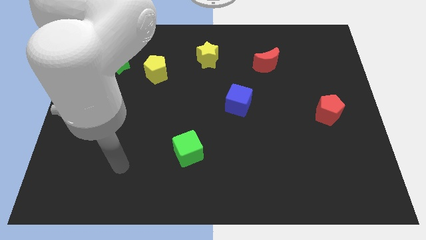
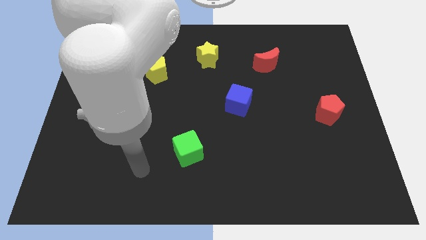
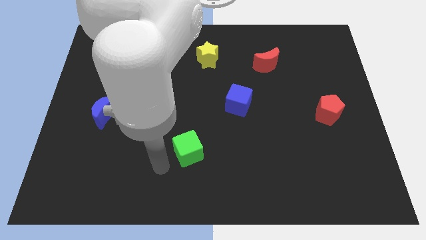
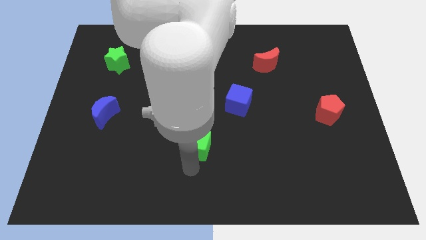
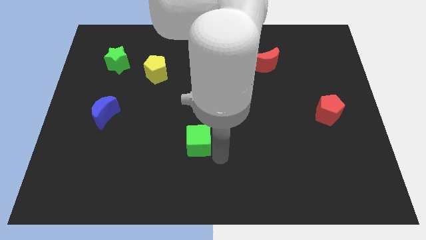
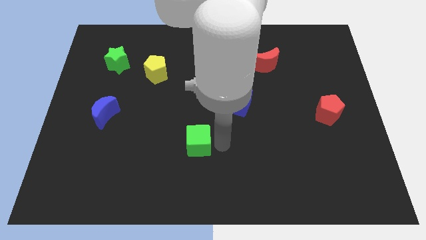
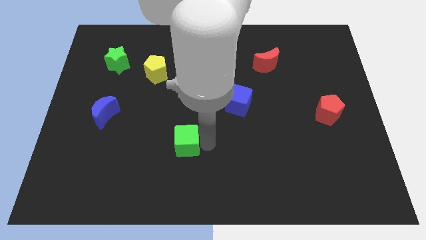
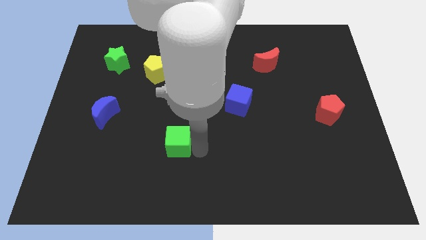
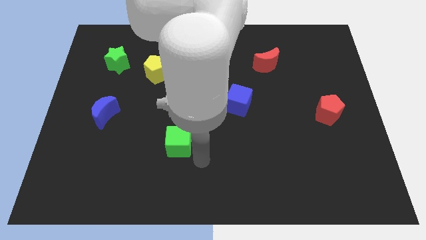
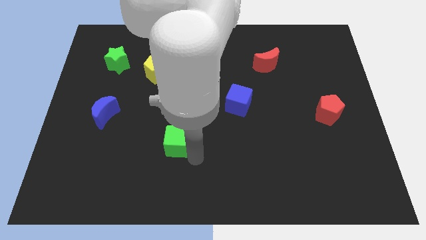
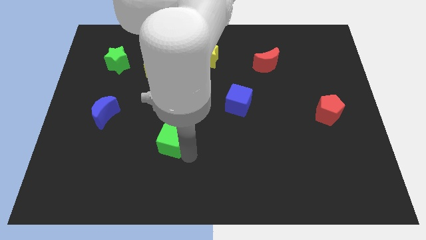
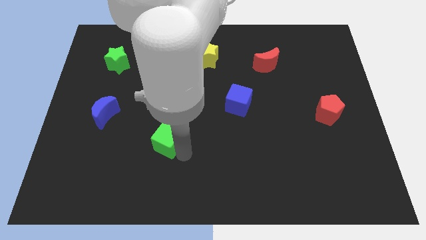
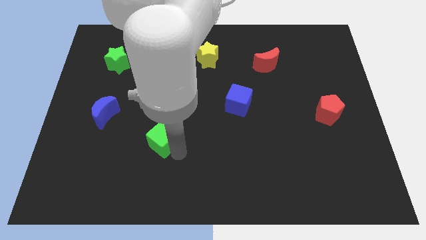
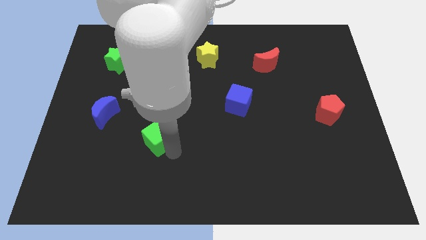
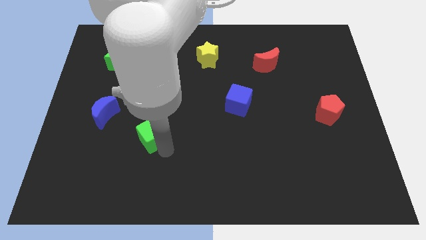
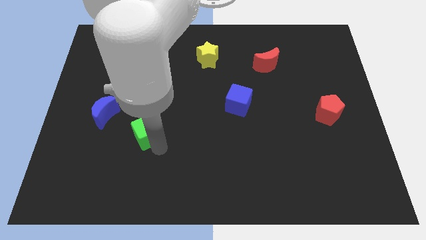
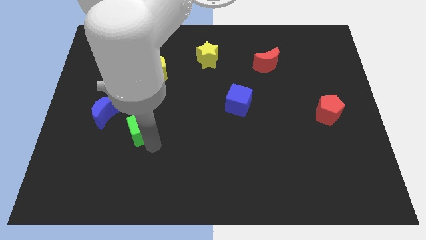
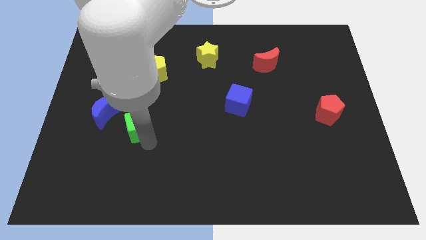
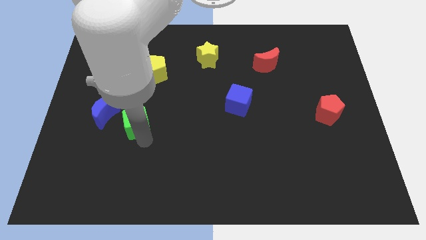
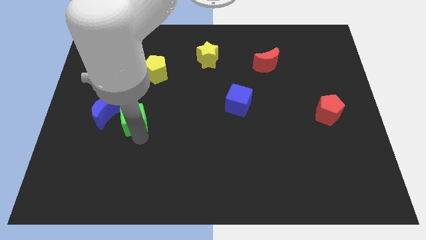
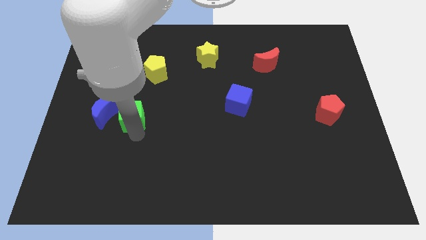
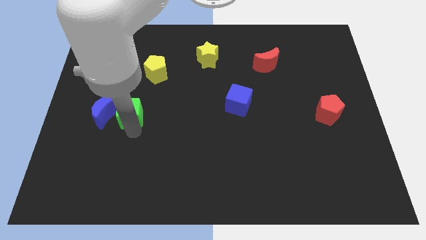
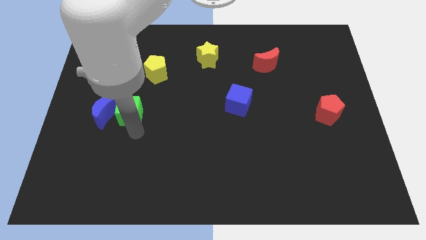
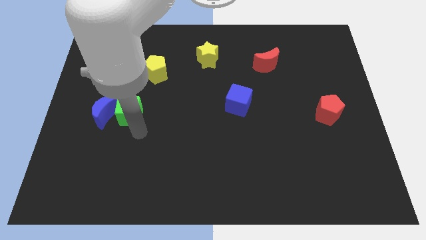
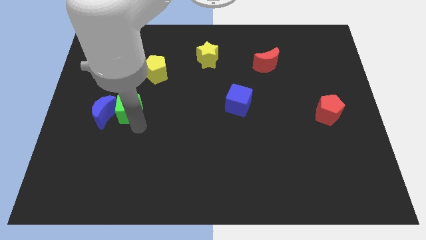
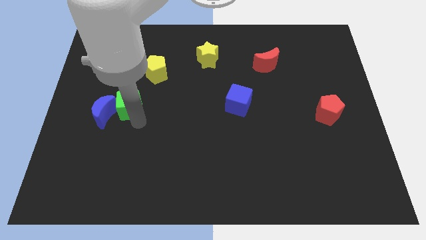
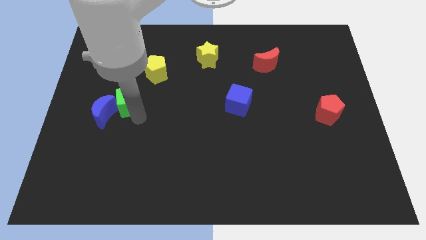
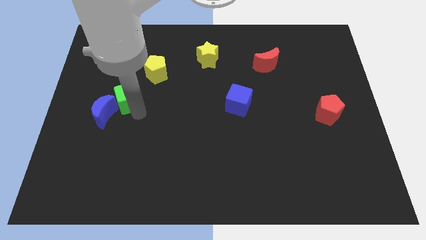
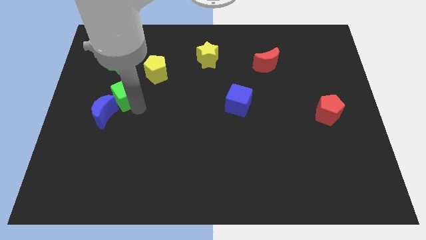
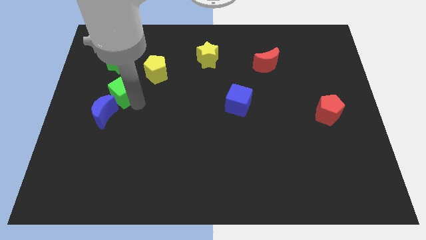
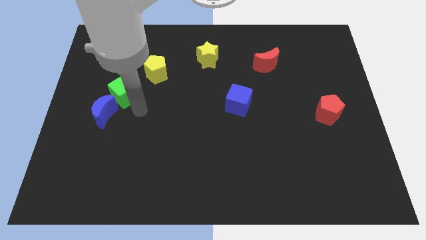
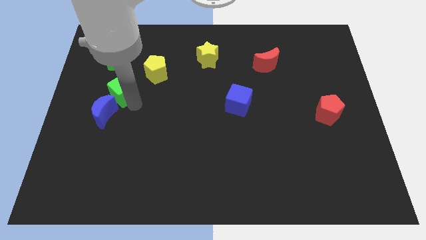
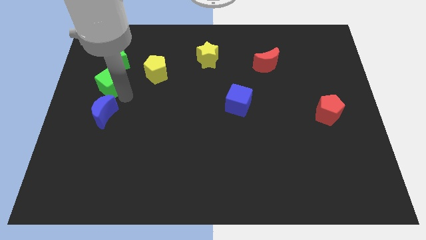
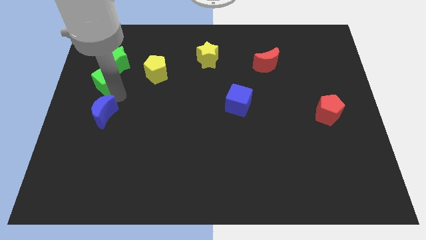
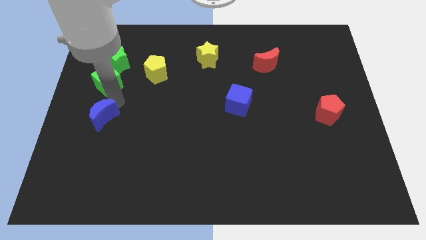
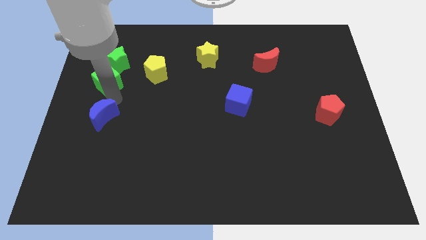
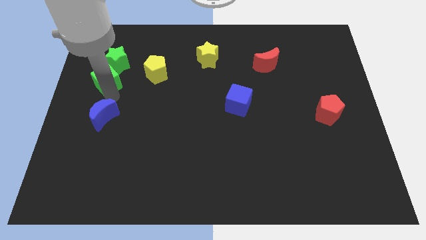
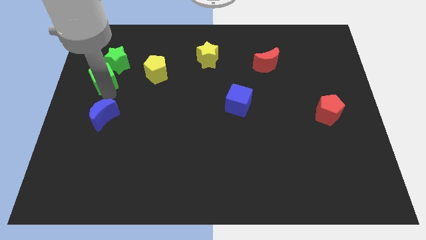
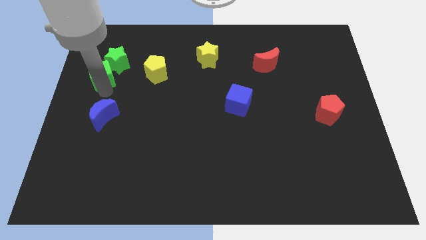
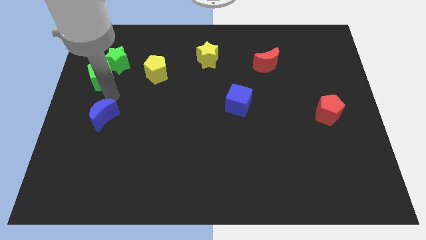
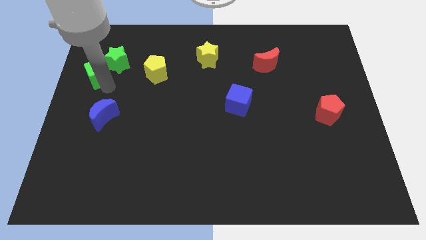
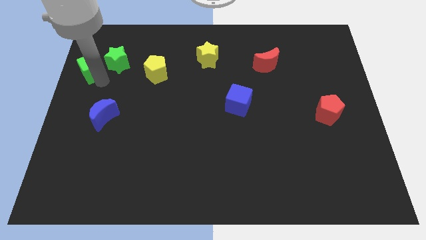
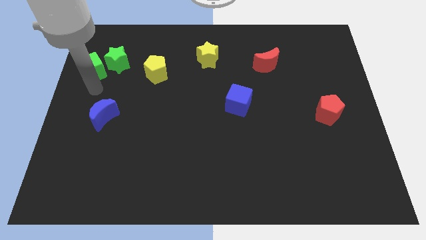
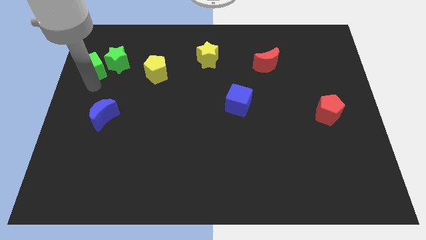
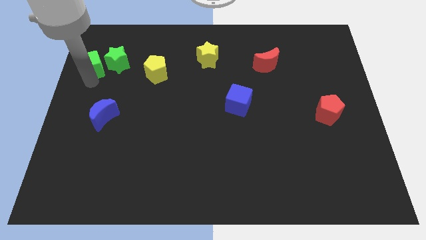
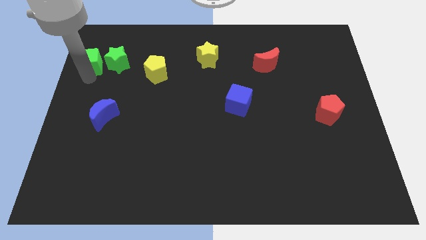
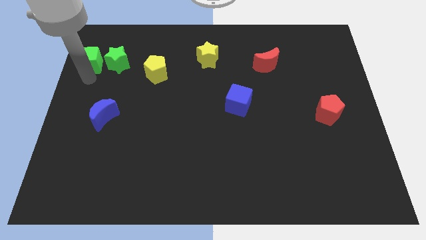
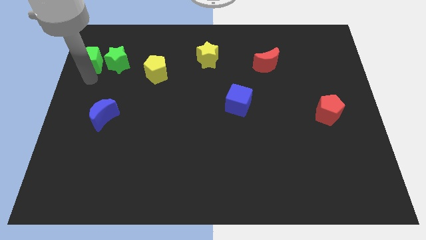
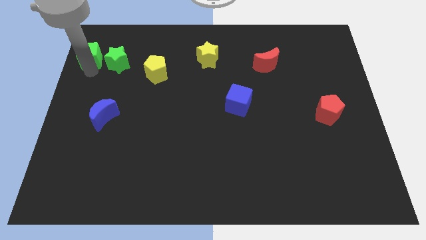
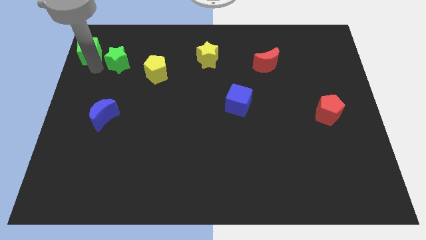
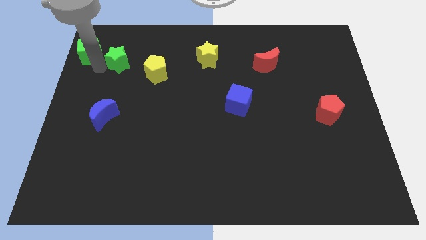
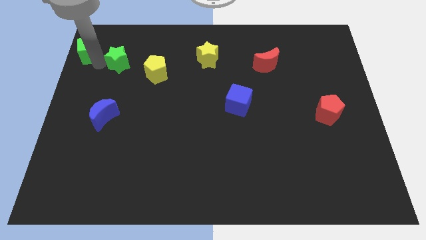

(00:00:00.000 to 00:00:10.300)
push the green cube to the upper left corner

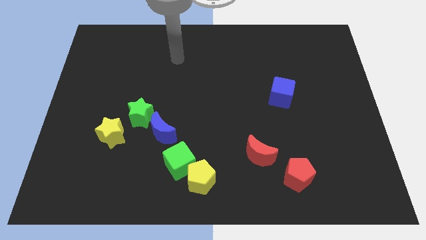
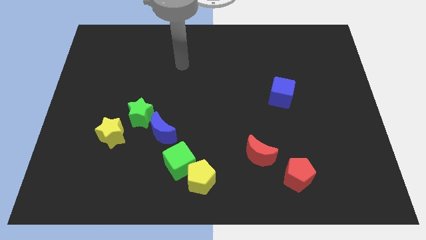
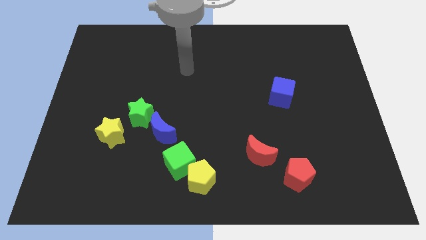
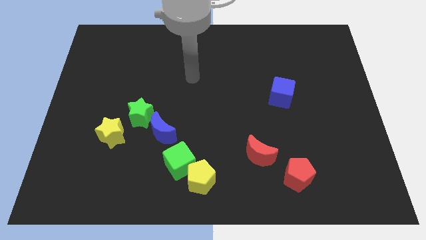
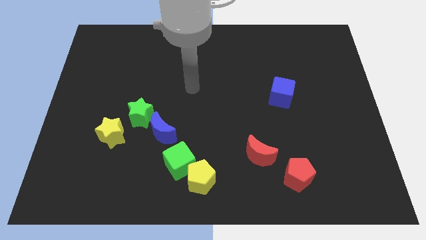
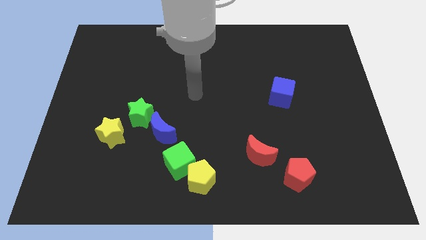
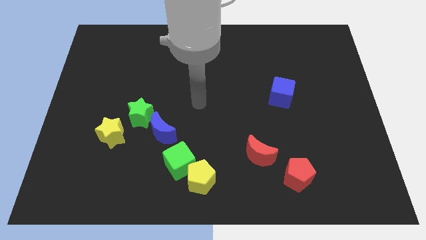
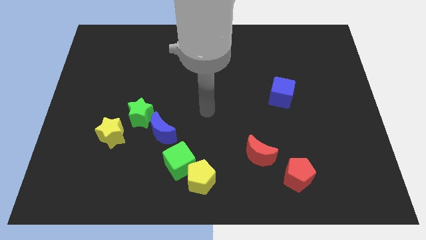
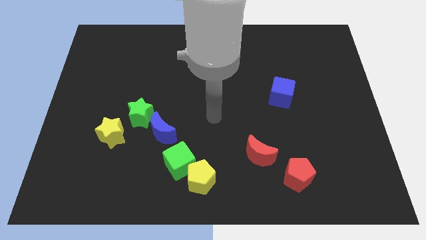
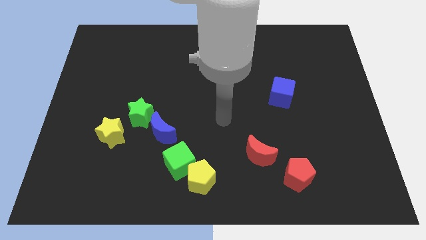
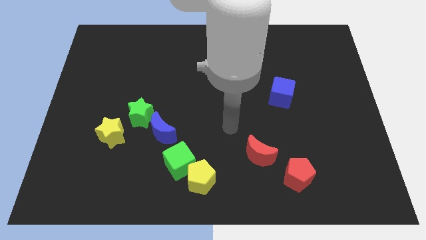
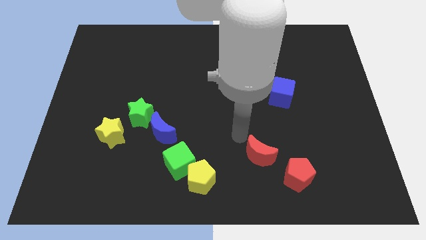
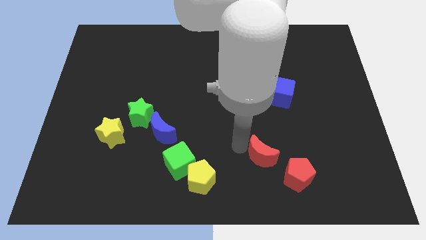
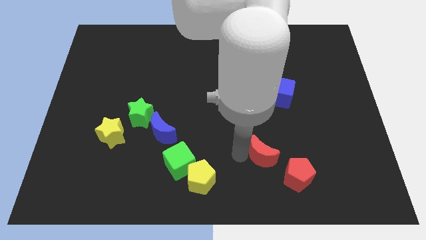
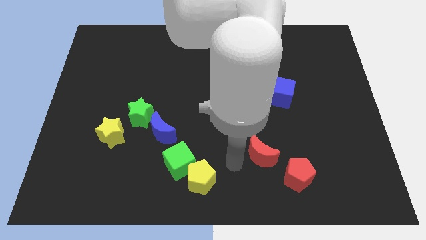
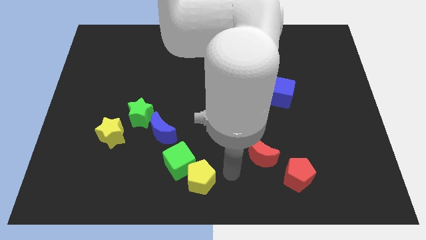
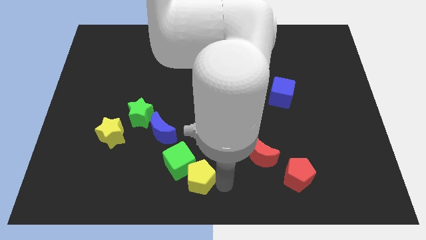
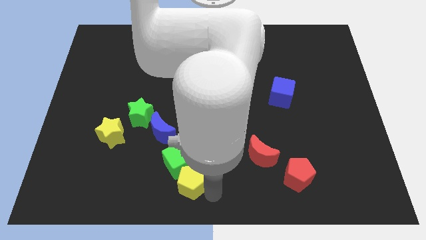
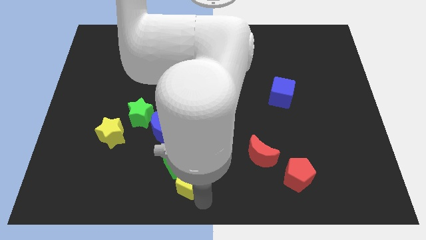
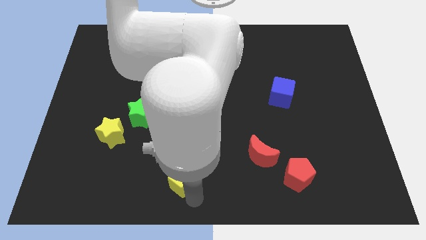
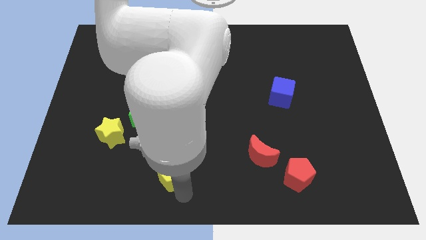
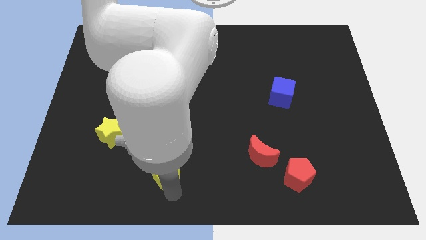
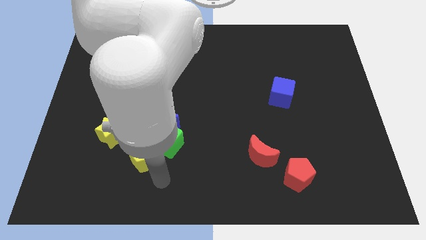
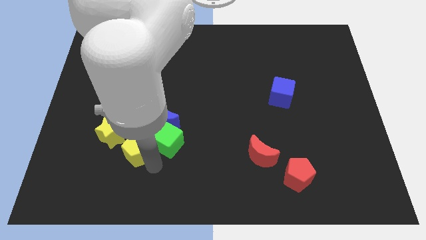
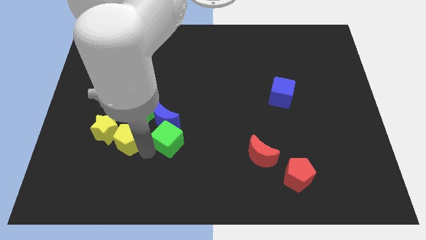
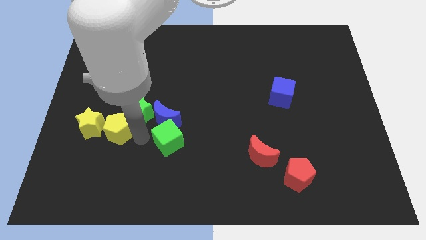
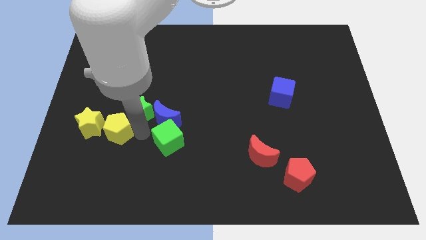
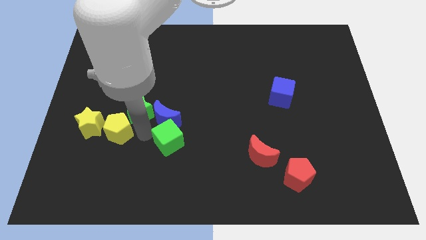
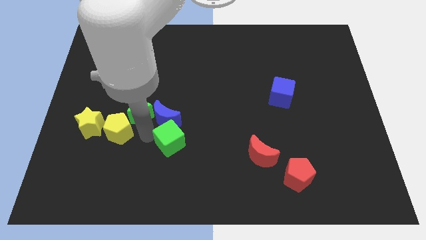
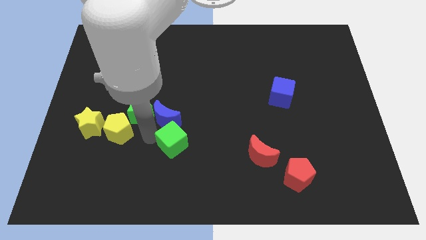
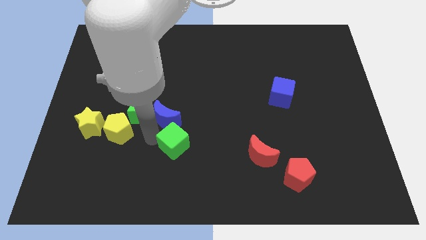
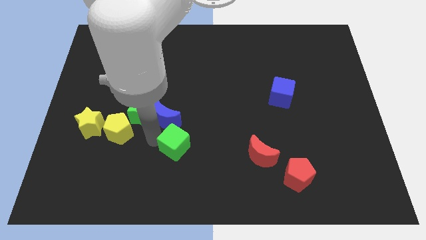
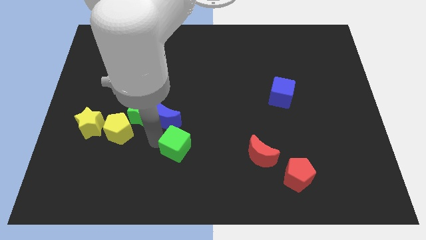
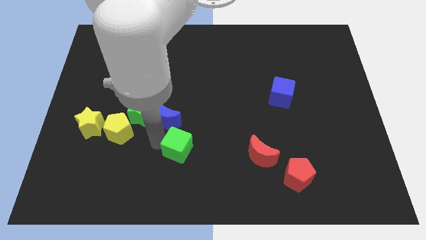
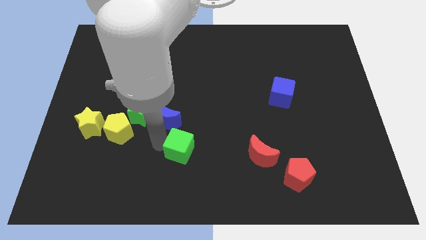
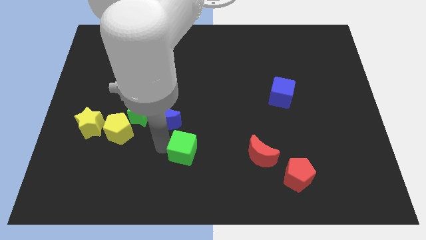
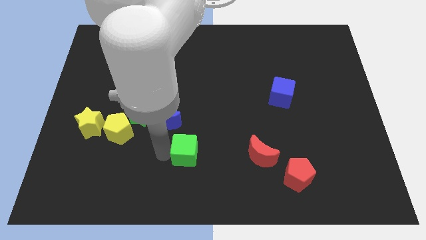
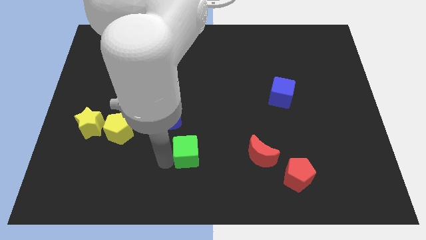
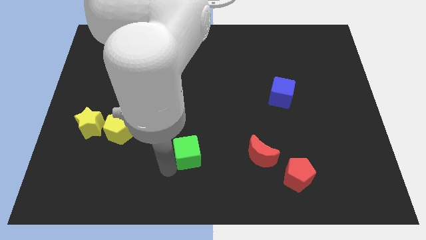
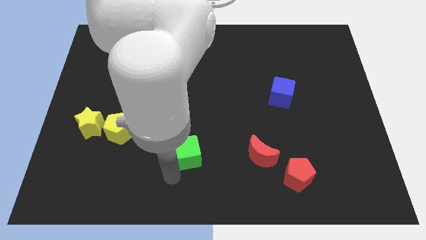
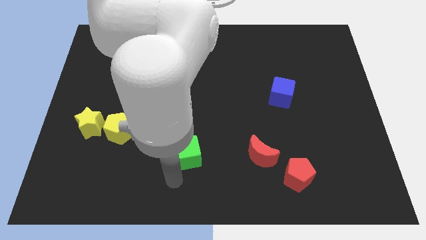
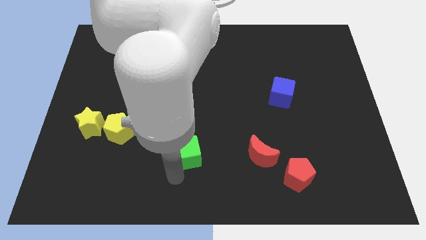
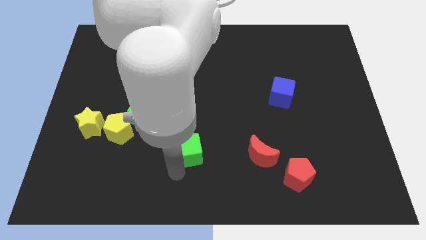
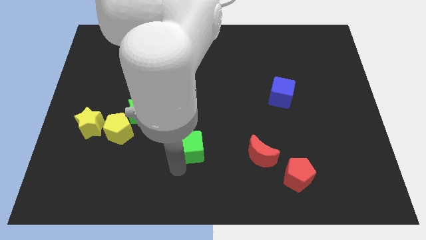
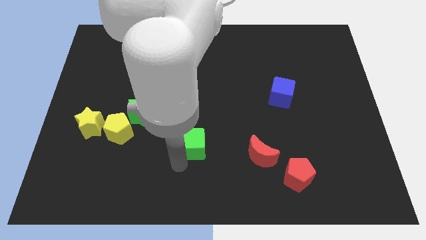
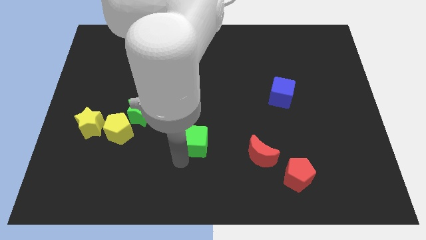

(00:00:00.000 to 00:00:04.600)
slide the green cube to the middle
